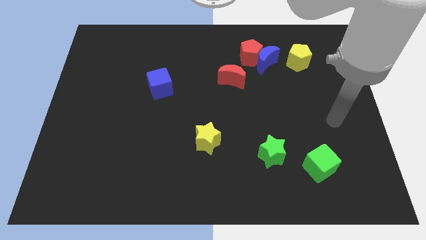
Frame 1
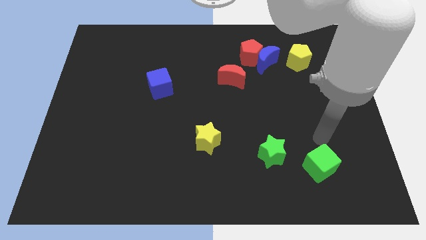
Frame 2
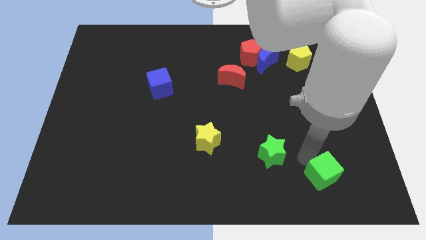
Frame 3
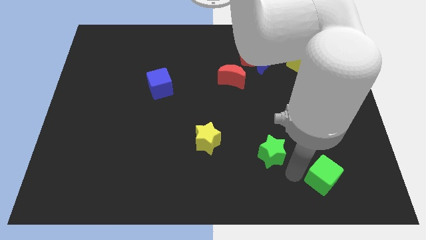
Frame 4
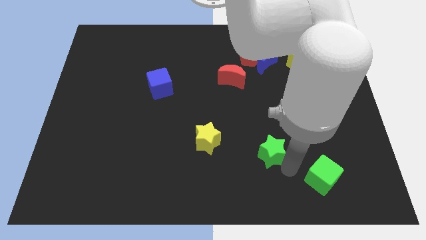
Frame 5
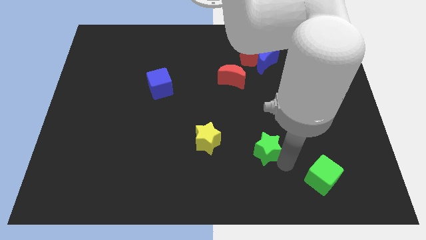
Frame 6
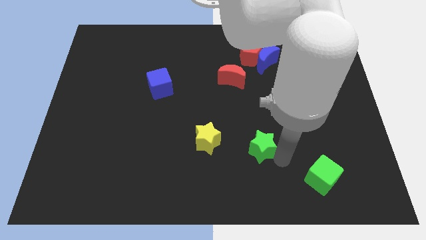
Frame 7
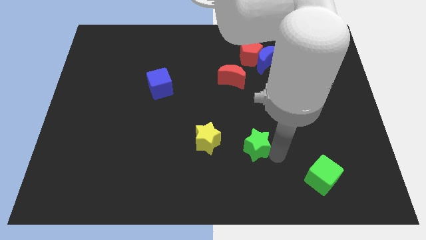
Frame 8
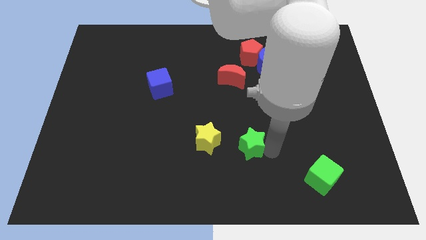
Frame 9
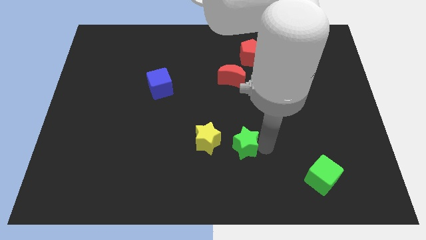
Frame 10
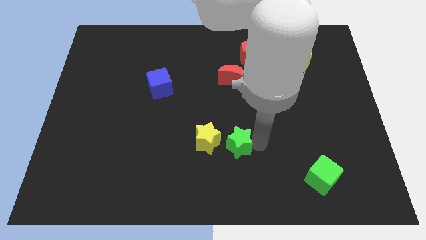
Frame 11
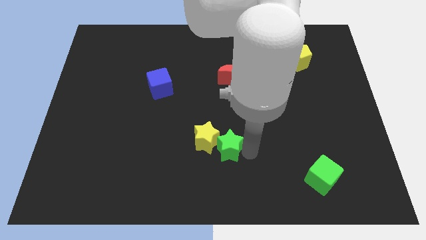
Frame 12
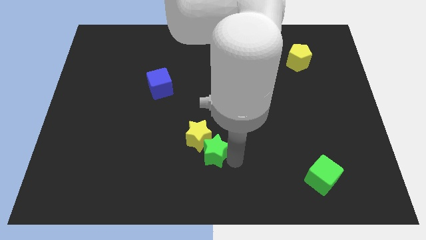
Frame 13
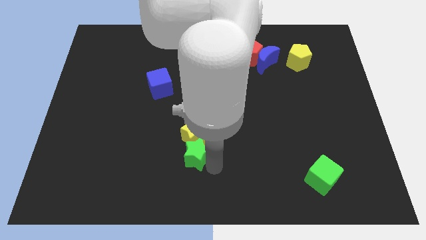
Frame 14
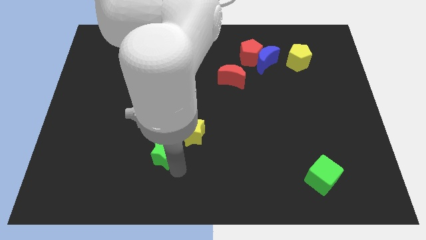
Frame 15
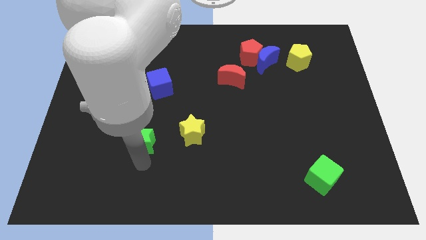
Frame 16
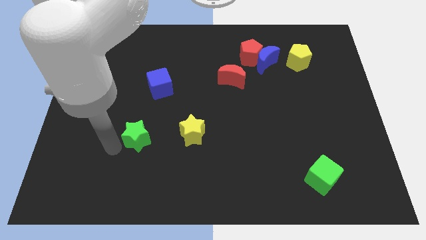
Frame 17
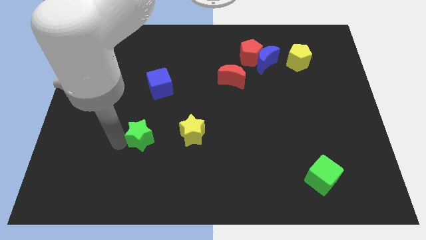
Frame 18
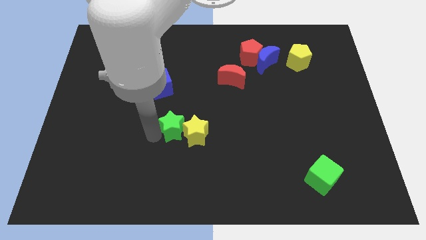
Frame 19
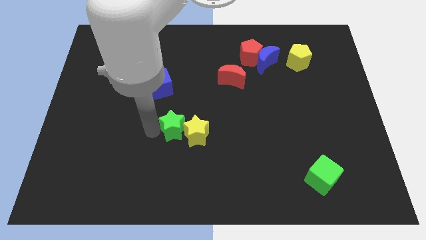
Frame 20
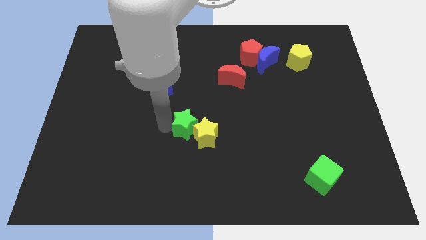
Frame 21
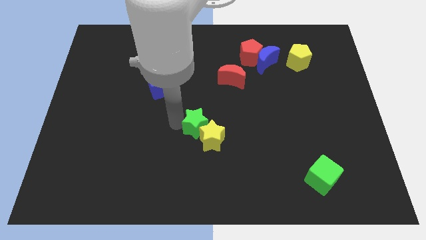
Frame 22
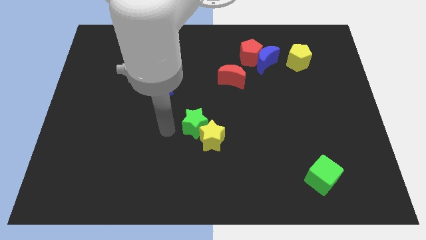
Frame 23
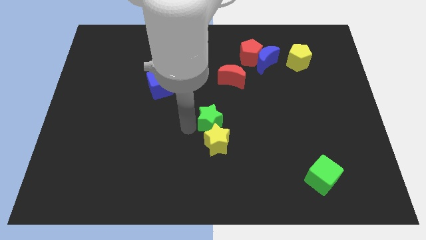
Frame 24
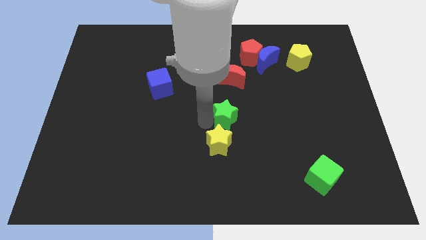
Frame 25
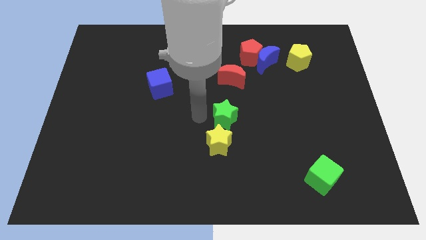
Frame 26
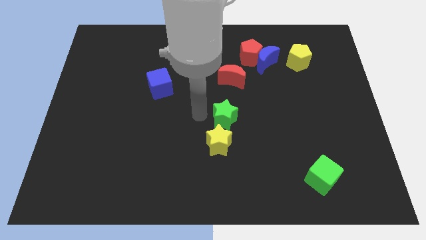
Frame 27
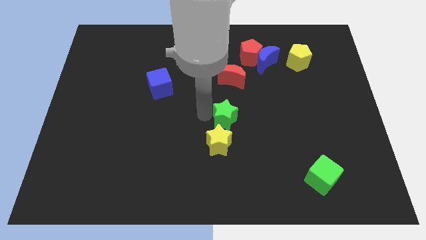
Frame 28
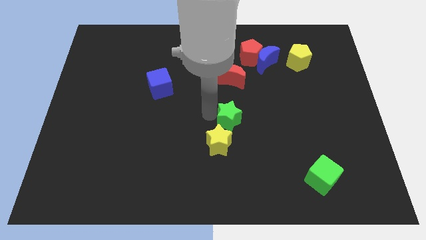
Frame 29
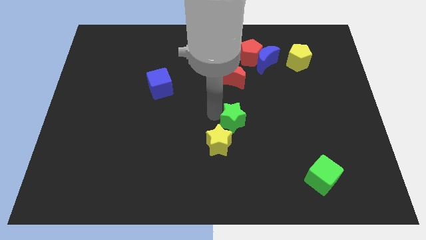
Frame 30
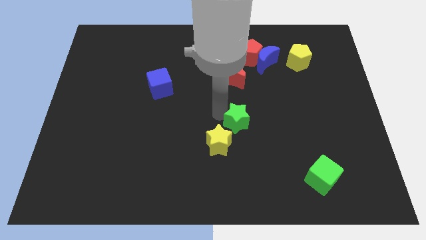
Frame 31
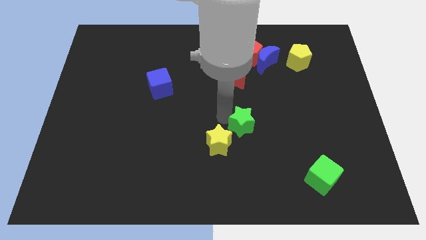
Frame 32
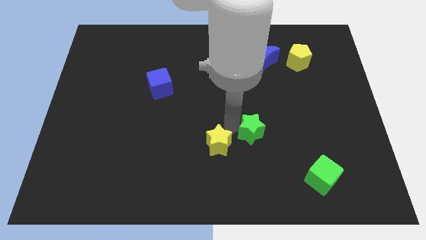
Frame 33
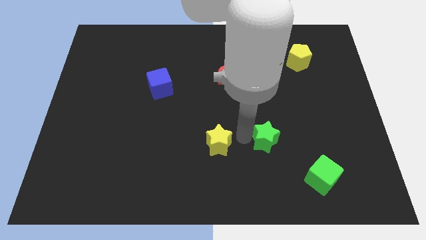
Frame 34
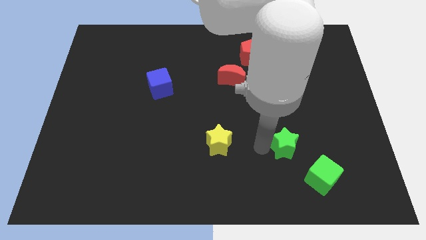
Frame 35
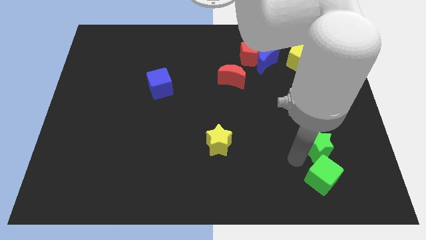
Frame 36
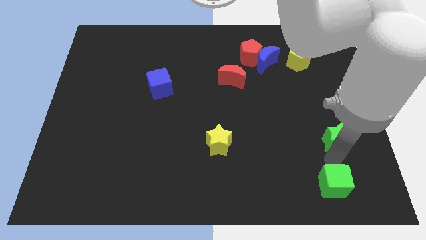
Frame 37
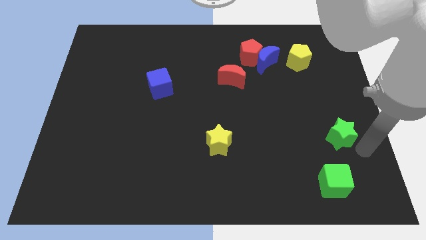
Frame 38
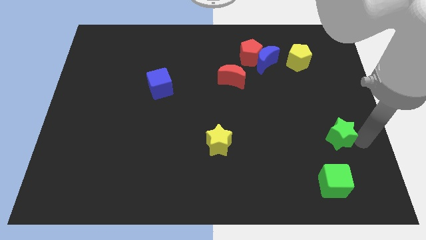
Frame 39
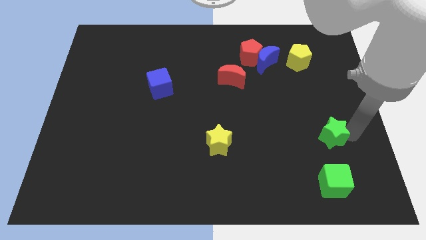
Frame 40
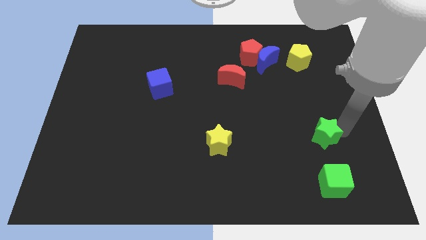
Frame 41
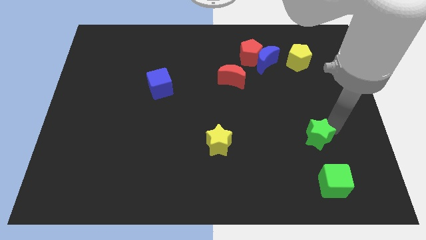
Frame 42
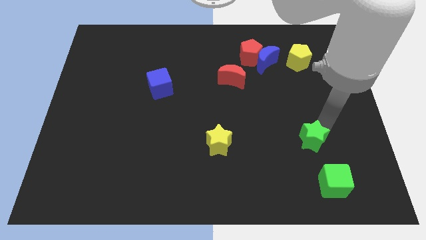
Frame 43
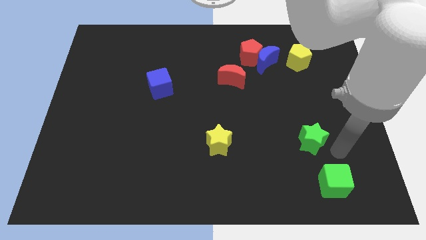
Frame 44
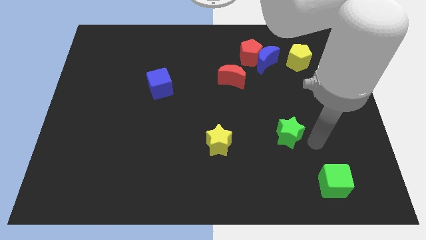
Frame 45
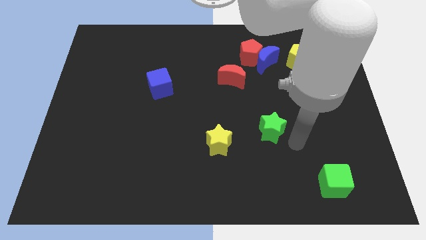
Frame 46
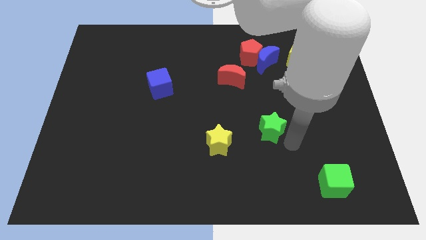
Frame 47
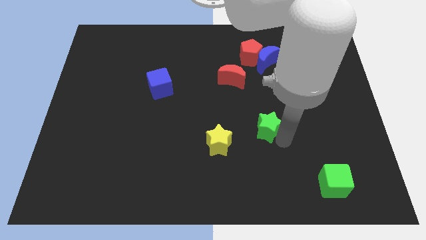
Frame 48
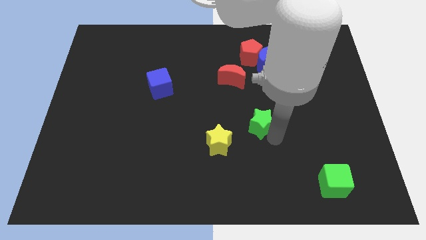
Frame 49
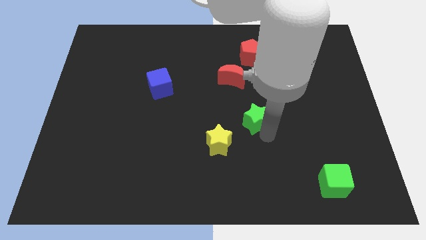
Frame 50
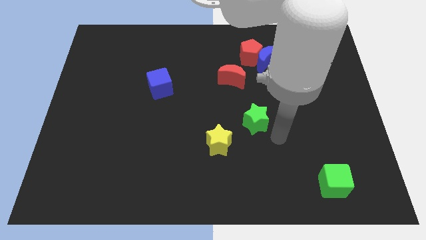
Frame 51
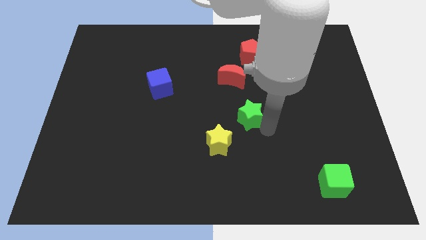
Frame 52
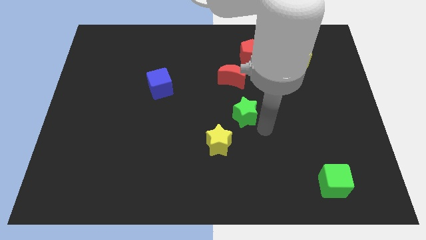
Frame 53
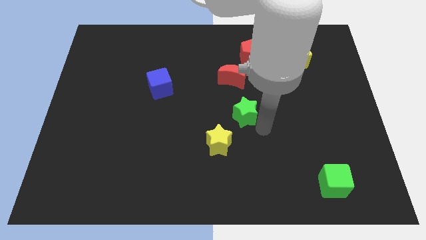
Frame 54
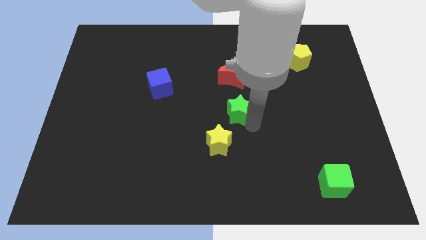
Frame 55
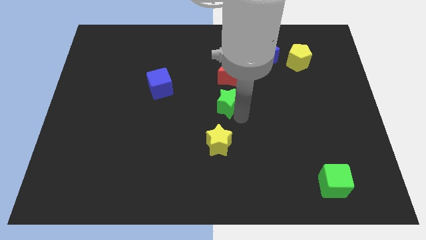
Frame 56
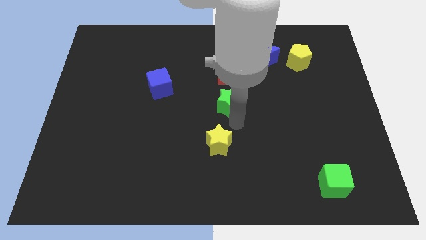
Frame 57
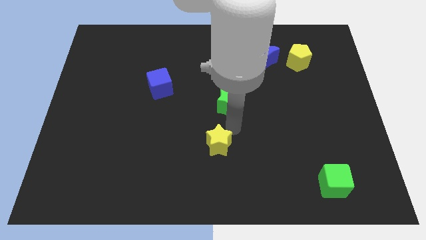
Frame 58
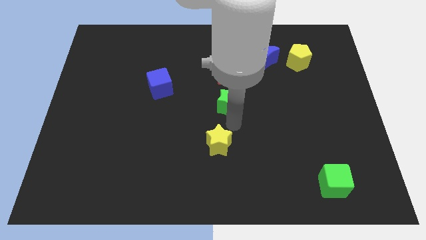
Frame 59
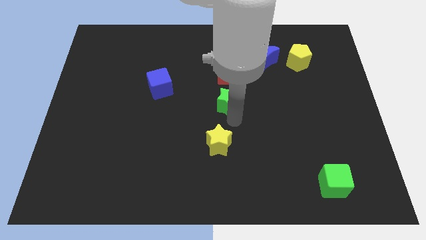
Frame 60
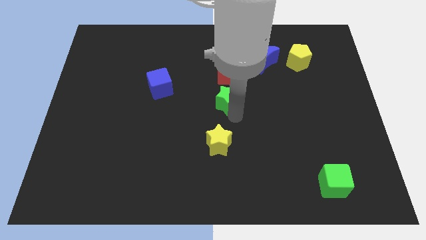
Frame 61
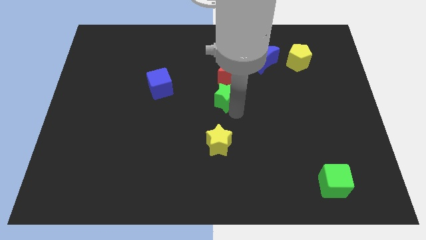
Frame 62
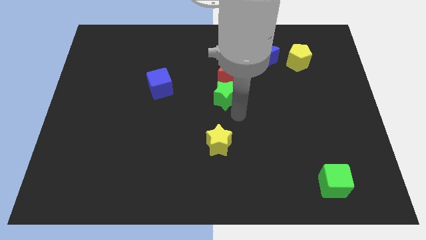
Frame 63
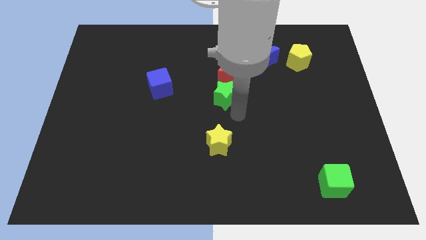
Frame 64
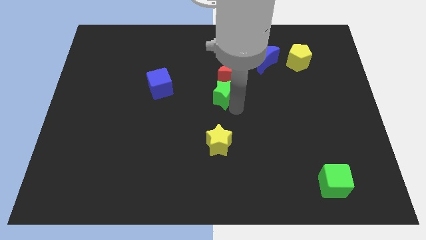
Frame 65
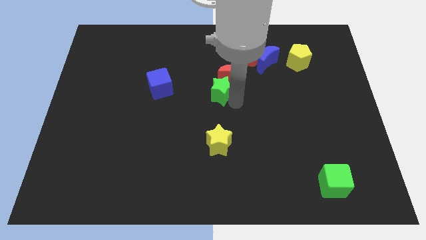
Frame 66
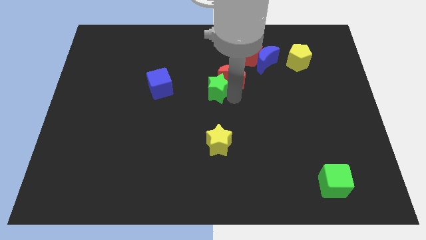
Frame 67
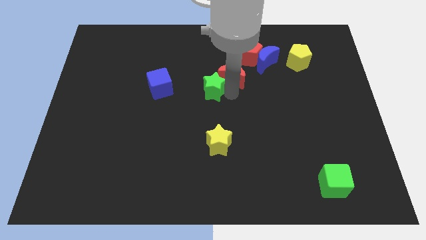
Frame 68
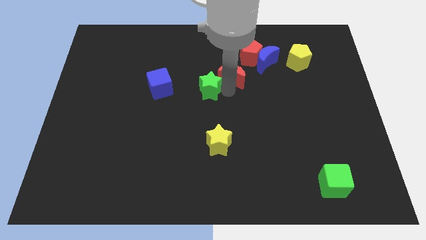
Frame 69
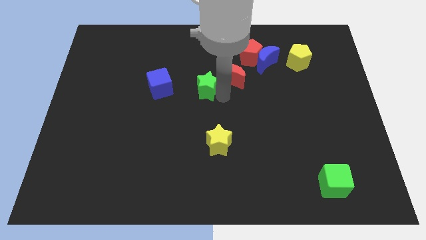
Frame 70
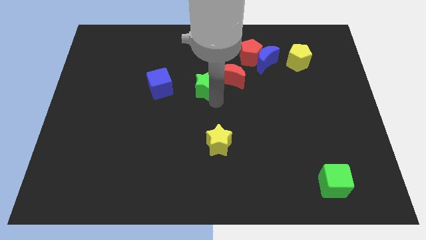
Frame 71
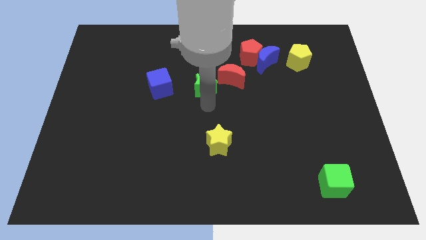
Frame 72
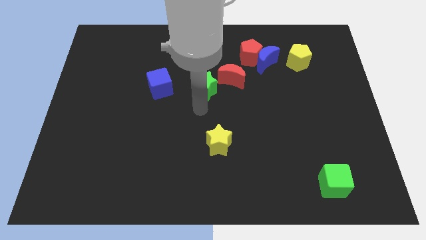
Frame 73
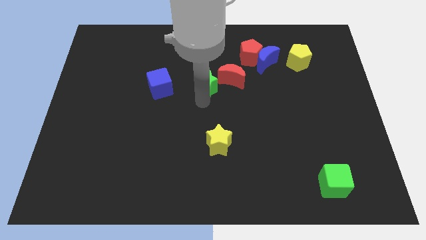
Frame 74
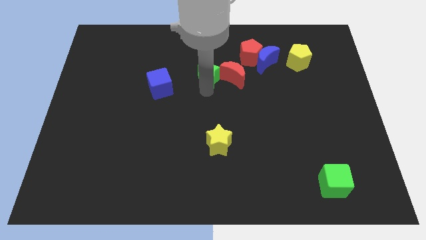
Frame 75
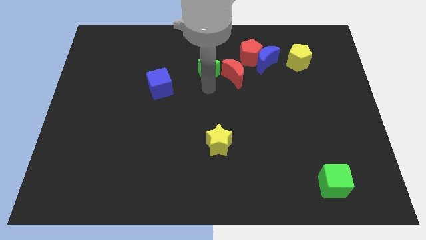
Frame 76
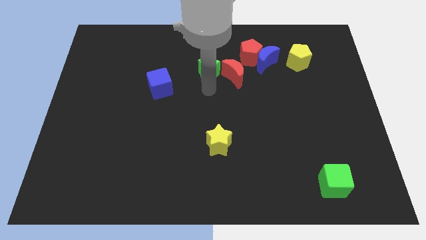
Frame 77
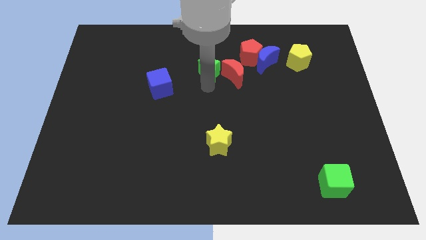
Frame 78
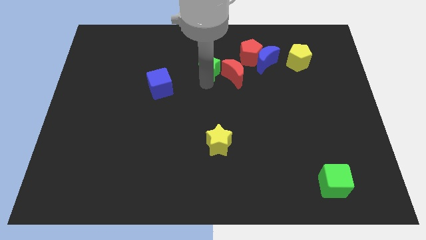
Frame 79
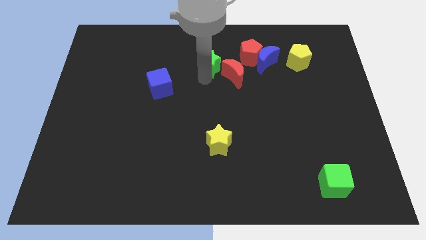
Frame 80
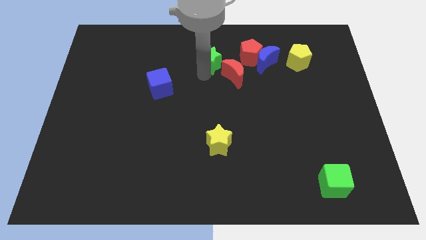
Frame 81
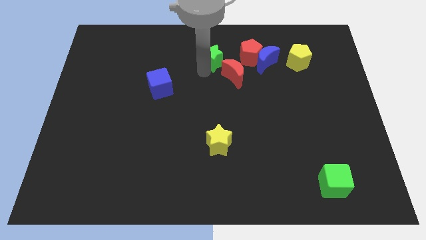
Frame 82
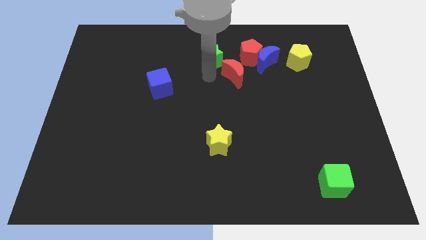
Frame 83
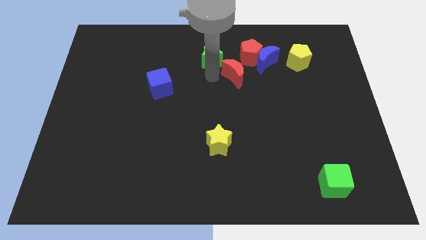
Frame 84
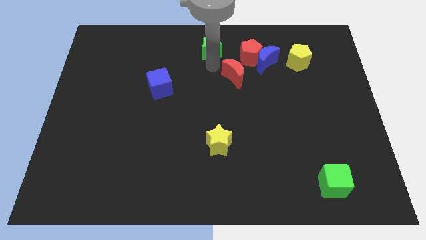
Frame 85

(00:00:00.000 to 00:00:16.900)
slide the green star to the towards your base
